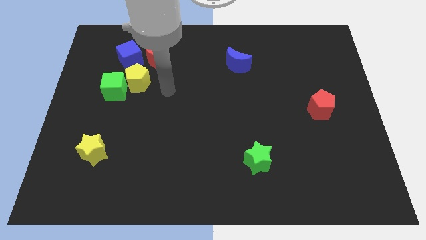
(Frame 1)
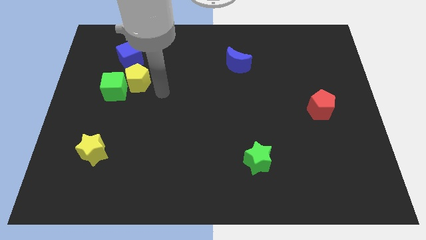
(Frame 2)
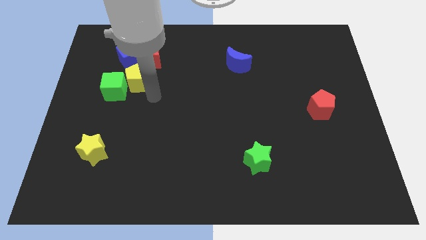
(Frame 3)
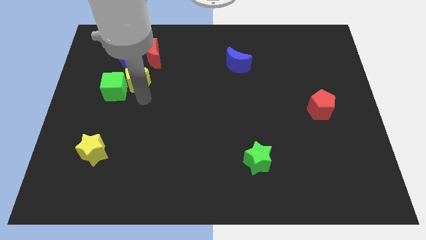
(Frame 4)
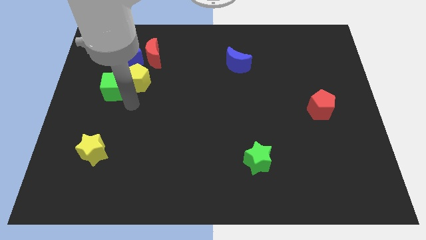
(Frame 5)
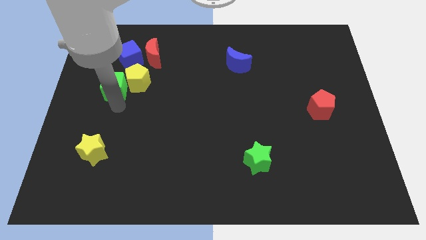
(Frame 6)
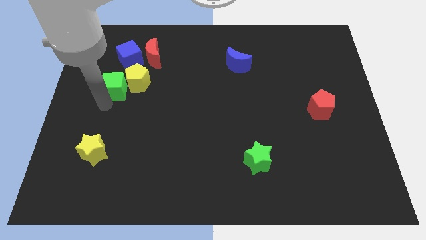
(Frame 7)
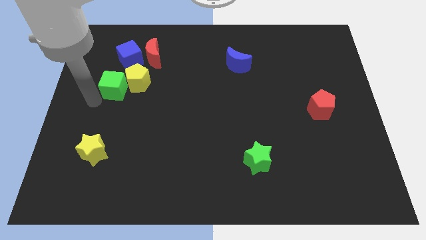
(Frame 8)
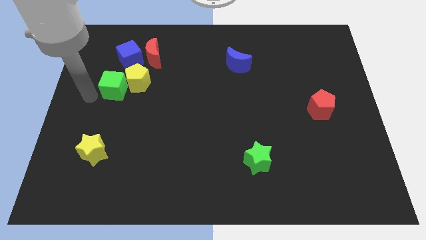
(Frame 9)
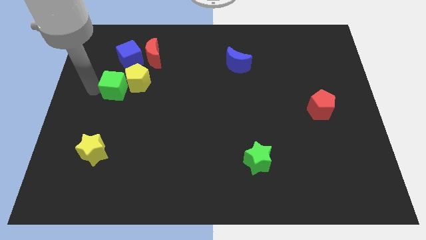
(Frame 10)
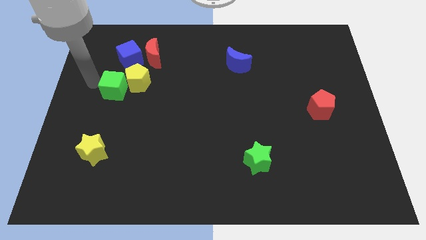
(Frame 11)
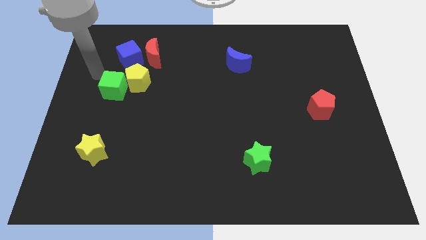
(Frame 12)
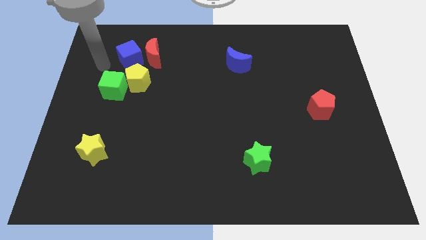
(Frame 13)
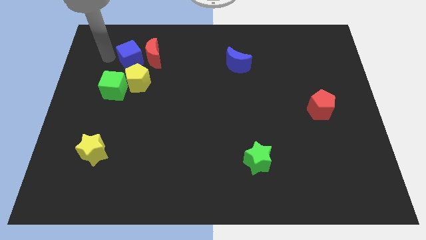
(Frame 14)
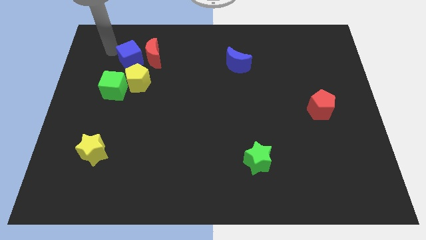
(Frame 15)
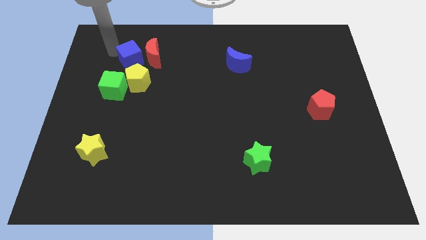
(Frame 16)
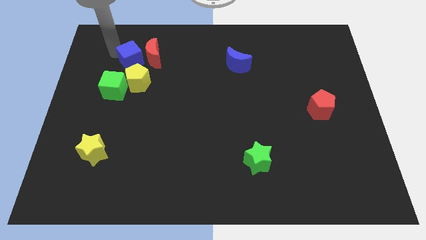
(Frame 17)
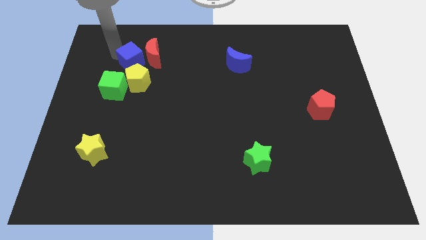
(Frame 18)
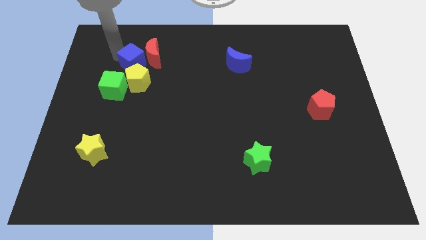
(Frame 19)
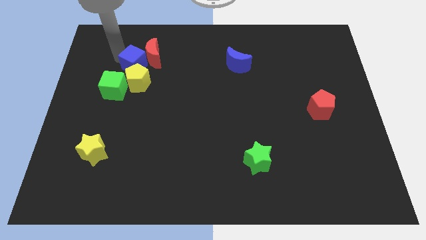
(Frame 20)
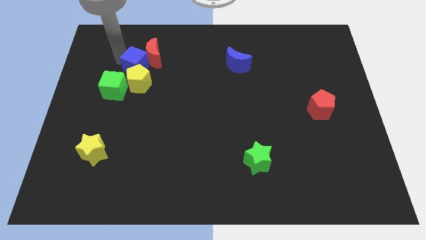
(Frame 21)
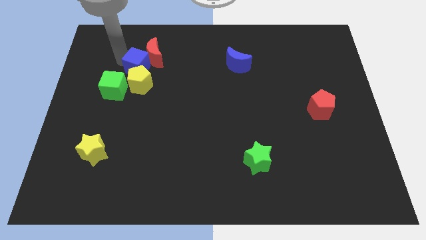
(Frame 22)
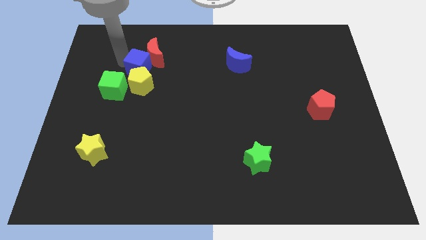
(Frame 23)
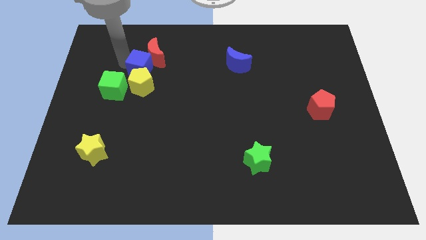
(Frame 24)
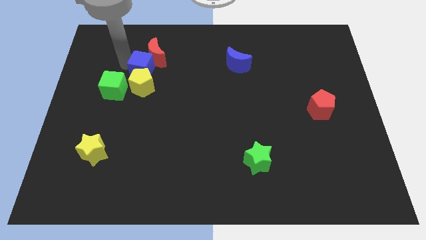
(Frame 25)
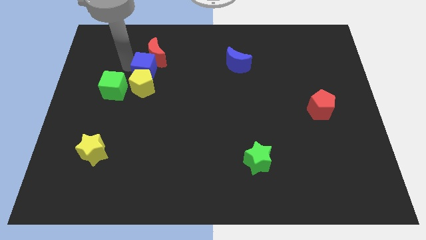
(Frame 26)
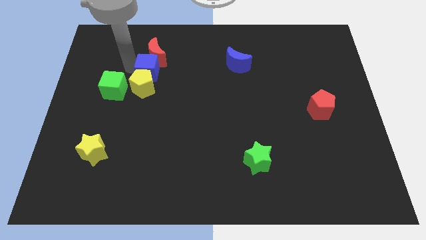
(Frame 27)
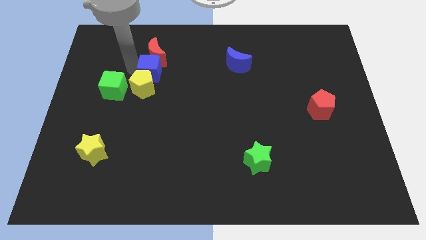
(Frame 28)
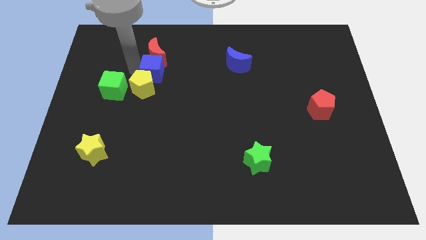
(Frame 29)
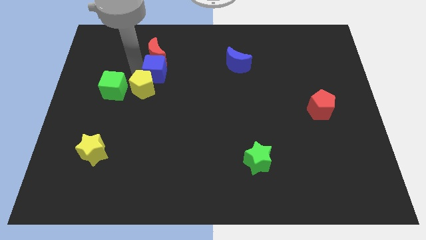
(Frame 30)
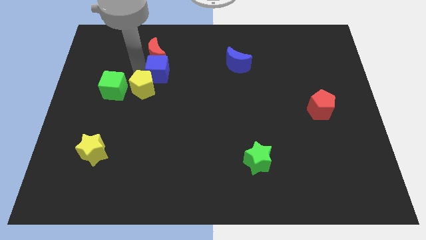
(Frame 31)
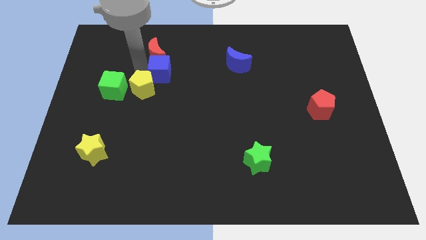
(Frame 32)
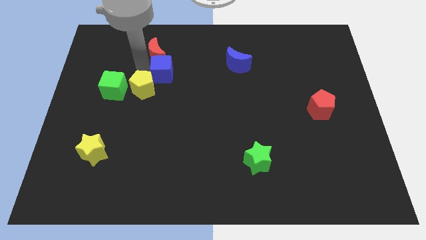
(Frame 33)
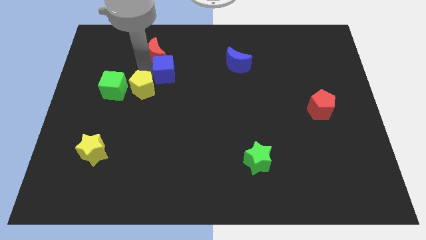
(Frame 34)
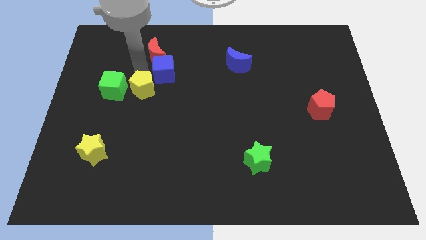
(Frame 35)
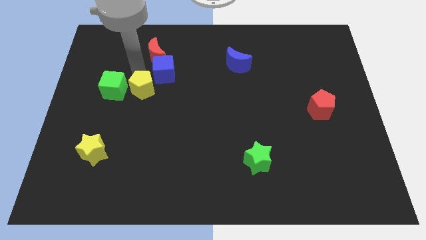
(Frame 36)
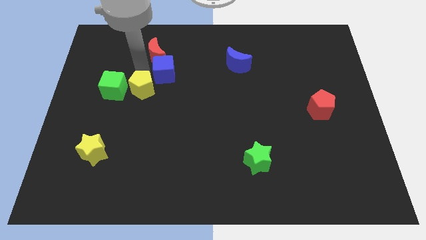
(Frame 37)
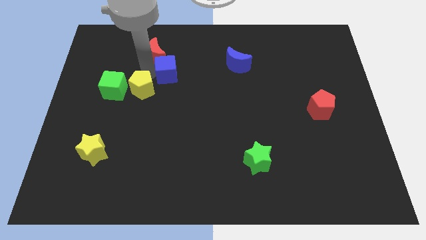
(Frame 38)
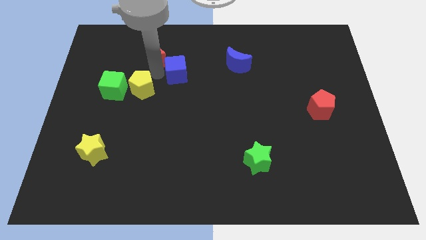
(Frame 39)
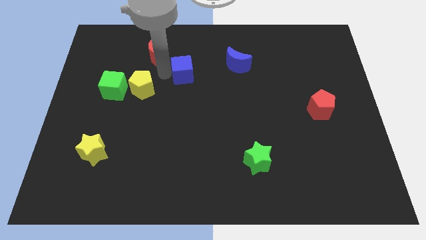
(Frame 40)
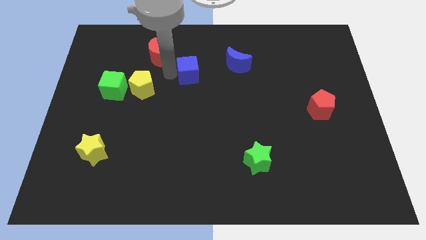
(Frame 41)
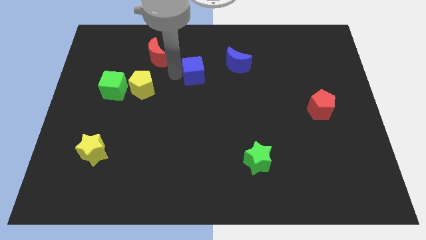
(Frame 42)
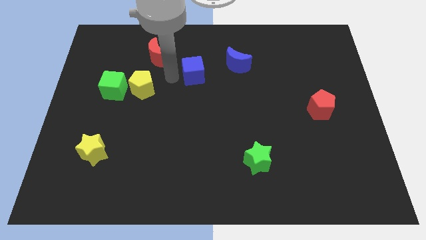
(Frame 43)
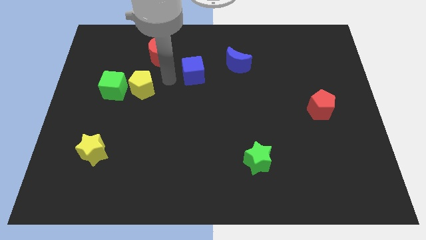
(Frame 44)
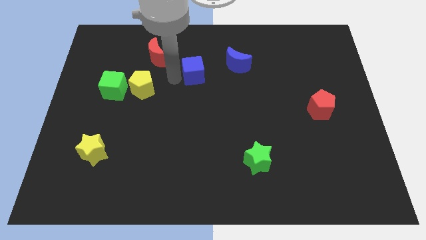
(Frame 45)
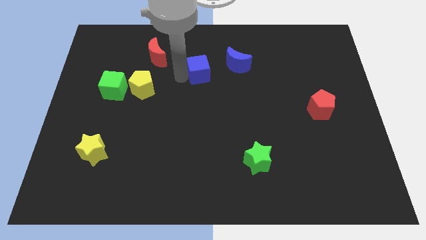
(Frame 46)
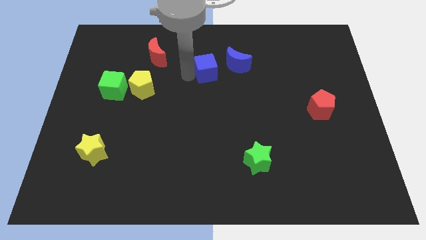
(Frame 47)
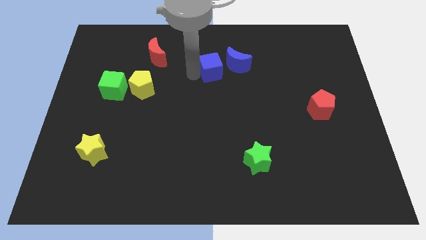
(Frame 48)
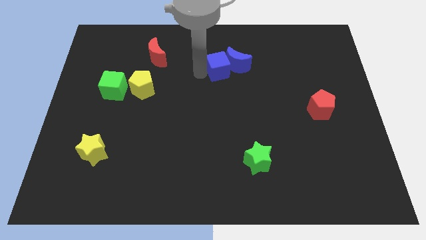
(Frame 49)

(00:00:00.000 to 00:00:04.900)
push the blue cube close to the blue moon

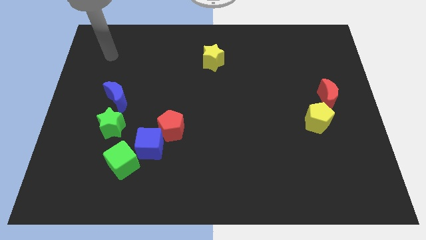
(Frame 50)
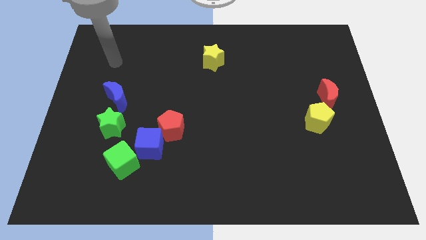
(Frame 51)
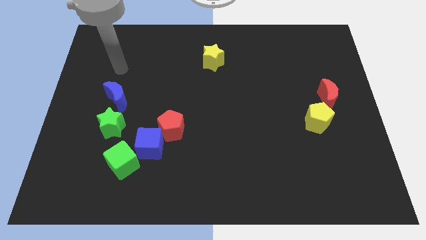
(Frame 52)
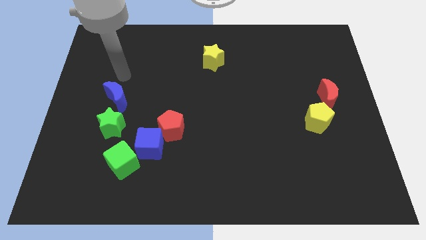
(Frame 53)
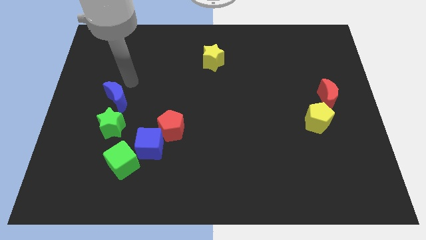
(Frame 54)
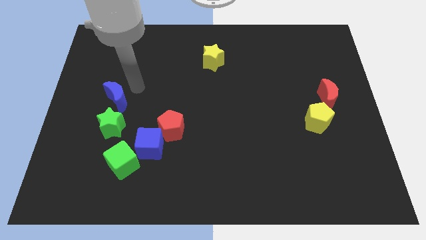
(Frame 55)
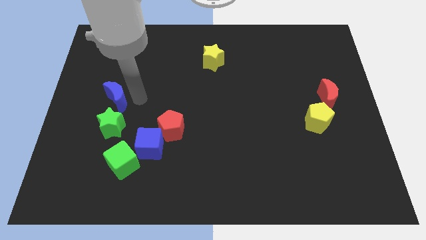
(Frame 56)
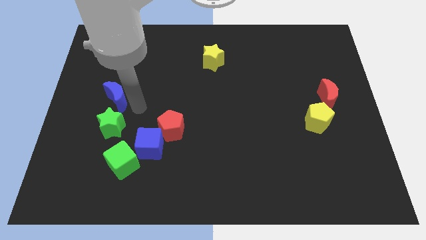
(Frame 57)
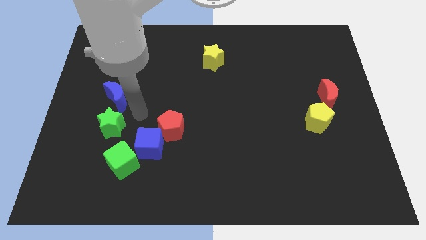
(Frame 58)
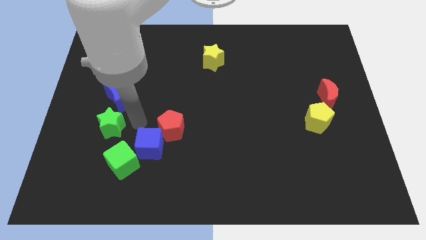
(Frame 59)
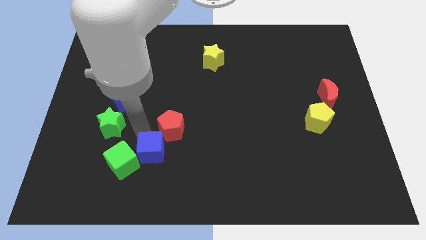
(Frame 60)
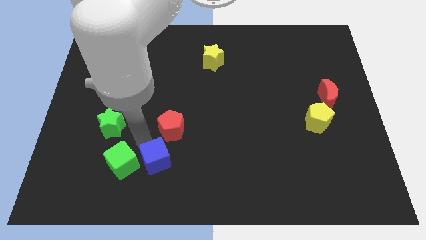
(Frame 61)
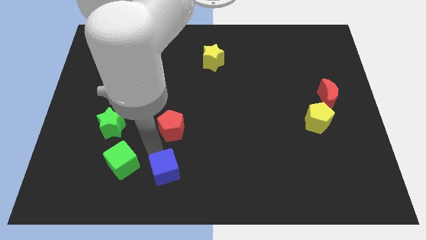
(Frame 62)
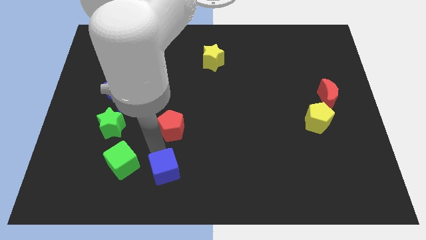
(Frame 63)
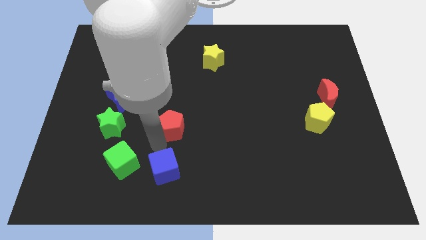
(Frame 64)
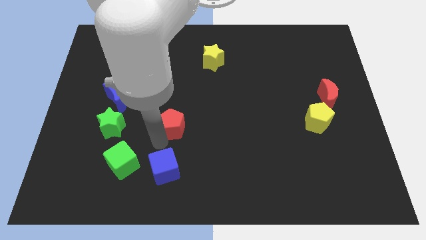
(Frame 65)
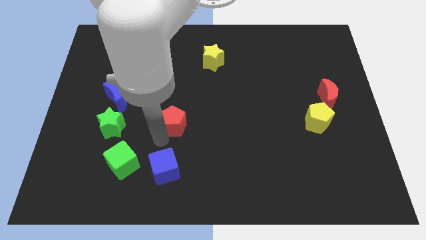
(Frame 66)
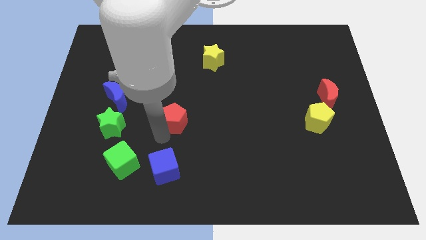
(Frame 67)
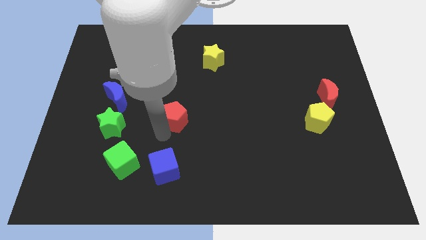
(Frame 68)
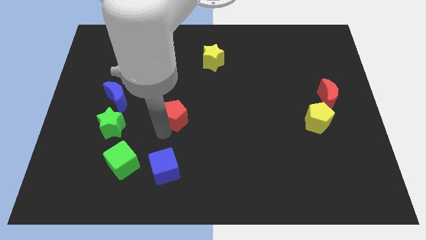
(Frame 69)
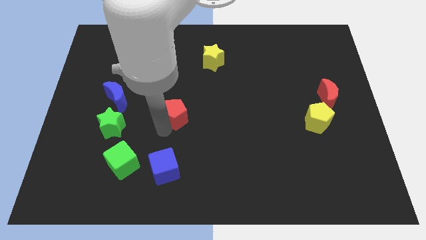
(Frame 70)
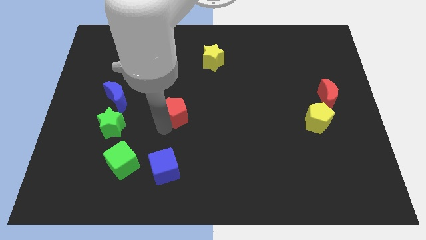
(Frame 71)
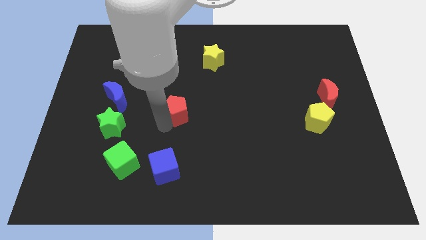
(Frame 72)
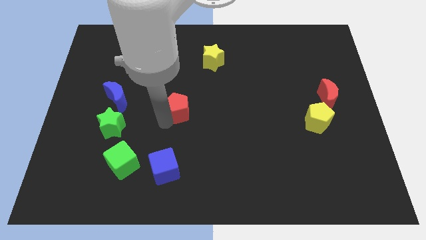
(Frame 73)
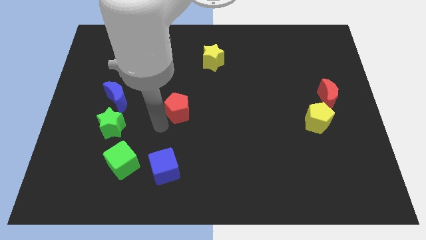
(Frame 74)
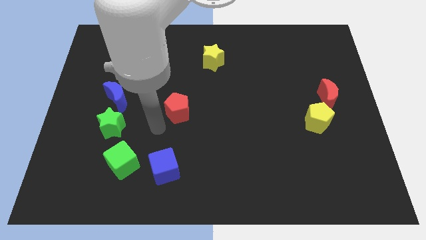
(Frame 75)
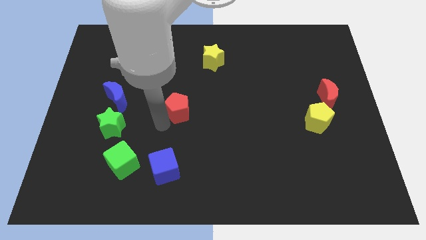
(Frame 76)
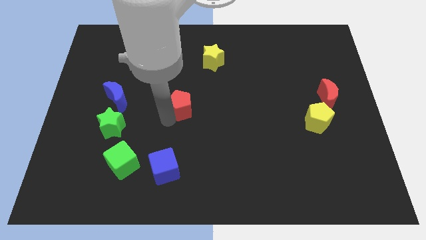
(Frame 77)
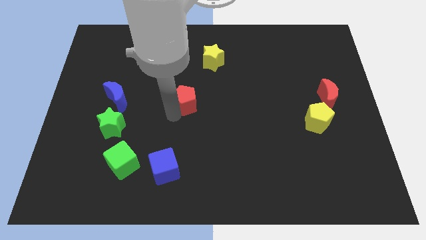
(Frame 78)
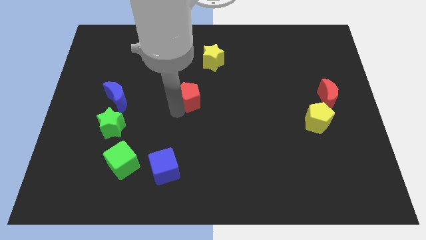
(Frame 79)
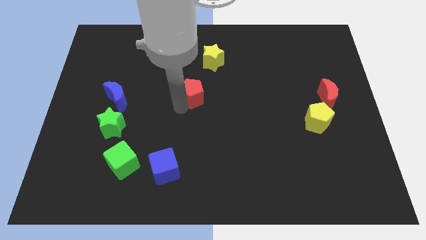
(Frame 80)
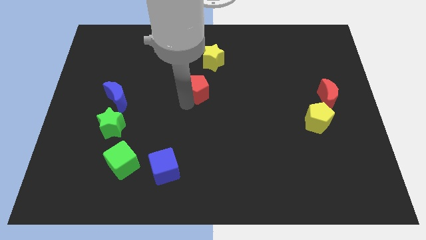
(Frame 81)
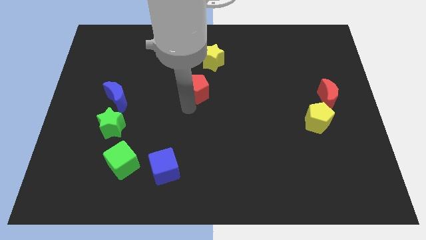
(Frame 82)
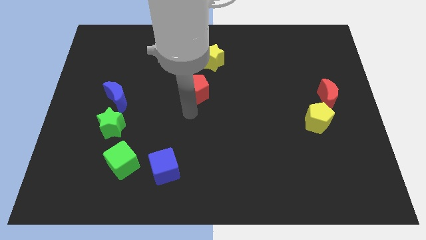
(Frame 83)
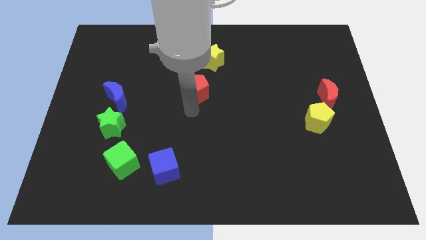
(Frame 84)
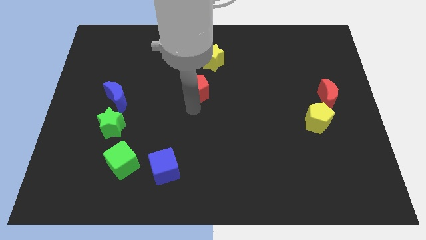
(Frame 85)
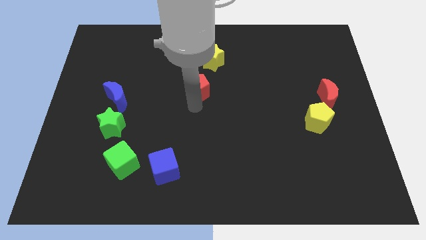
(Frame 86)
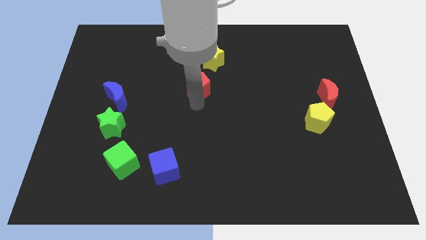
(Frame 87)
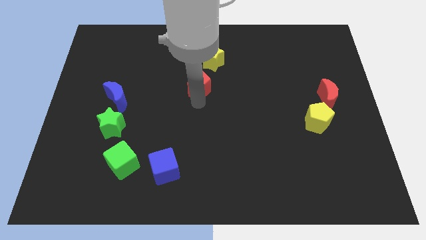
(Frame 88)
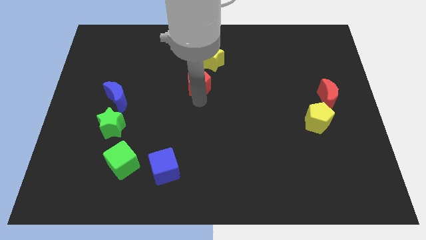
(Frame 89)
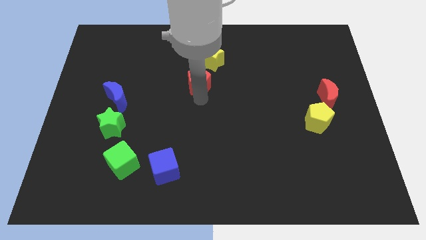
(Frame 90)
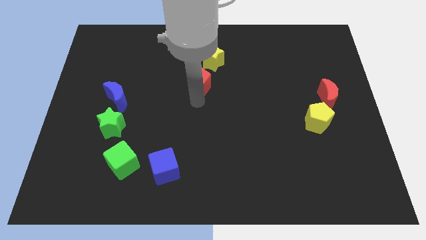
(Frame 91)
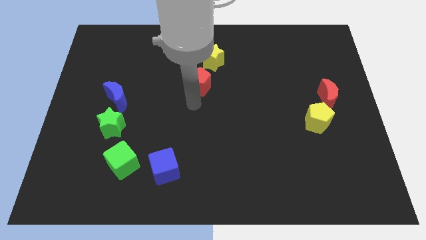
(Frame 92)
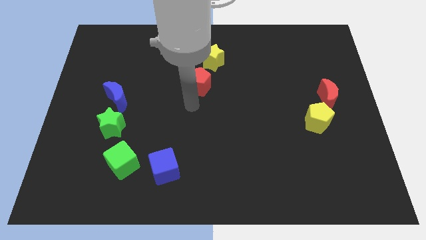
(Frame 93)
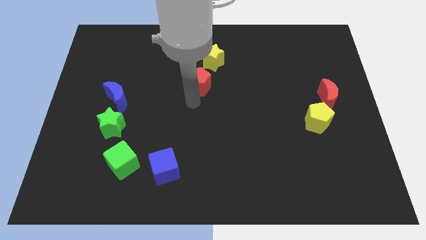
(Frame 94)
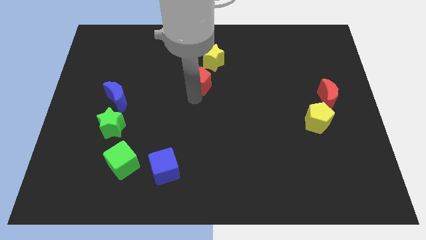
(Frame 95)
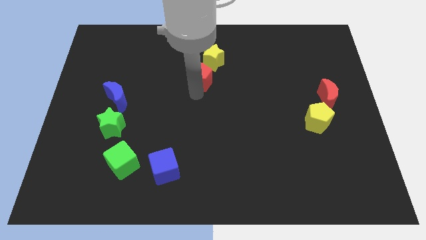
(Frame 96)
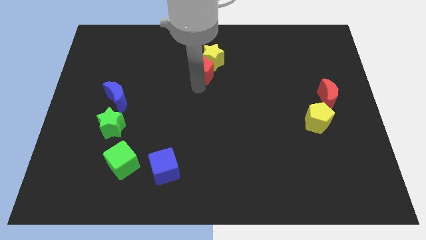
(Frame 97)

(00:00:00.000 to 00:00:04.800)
push the red pentagon next to the yellow star
